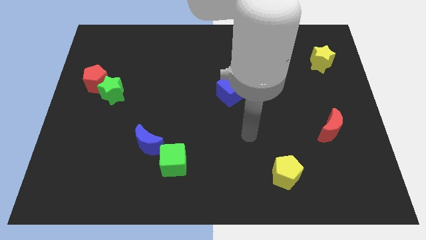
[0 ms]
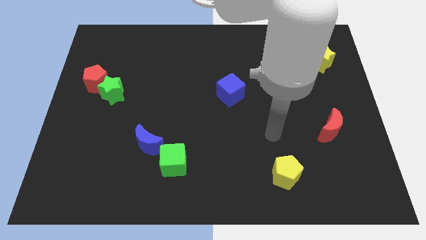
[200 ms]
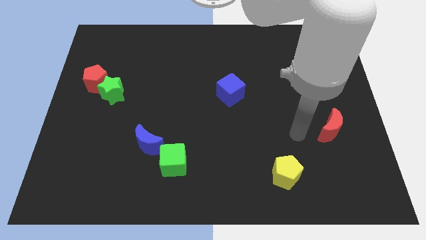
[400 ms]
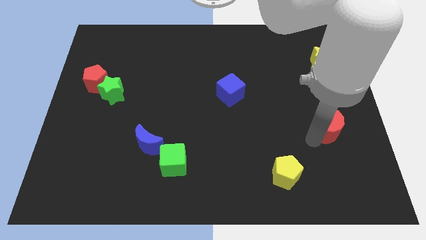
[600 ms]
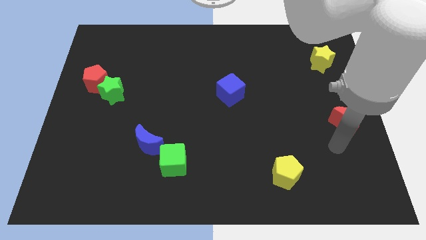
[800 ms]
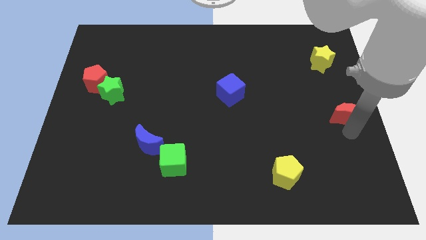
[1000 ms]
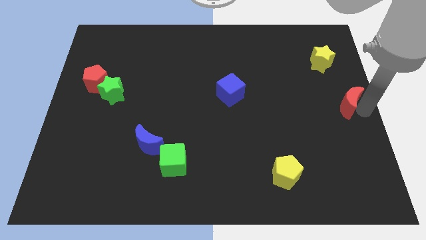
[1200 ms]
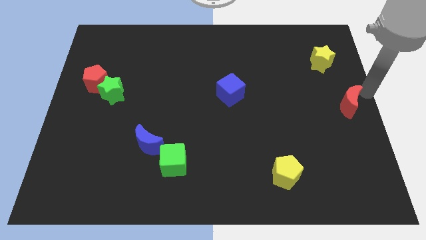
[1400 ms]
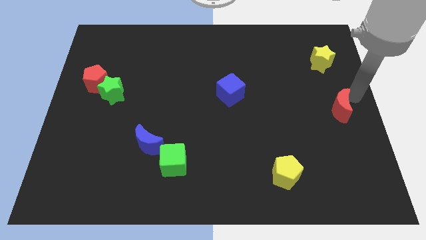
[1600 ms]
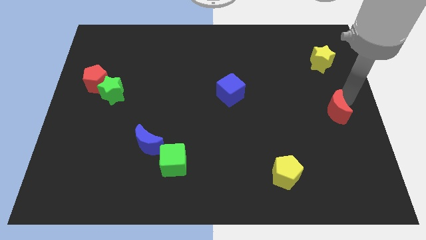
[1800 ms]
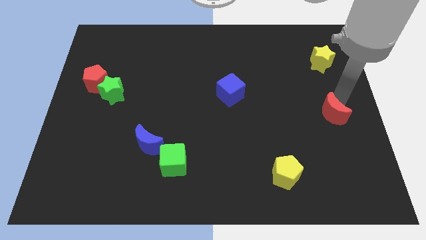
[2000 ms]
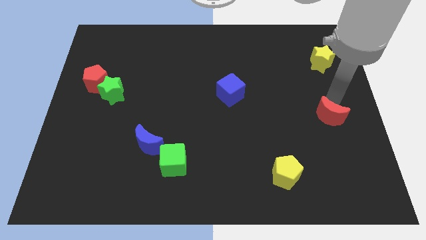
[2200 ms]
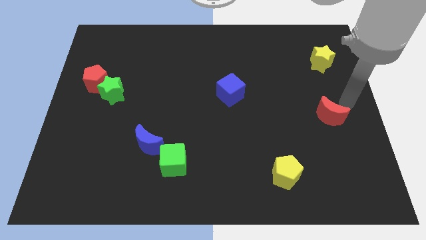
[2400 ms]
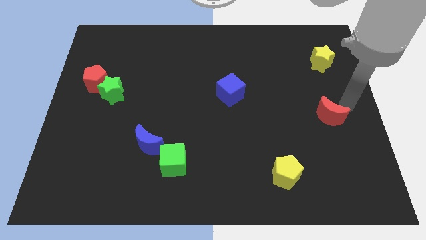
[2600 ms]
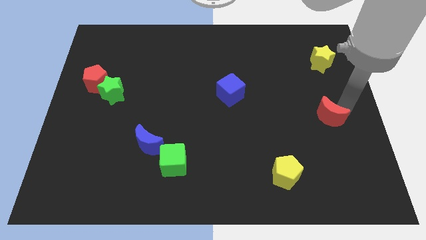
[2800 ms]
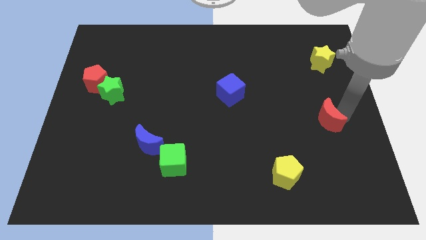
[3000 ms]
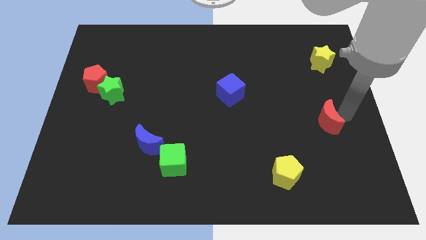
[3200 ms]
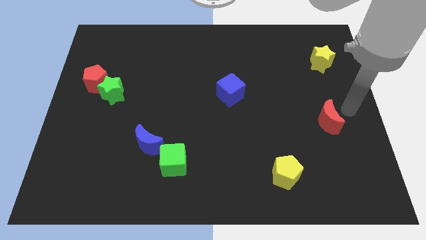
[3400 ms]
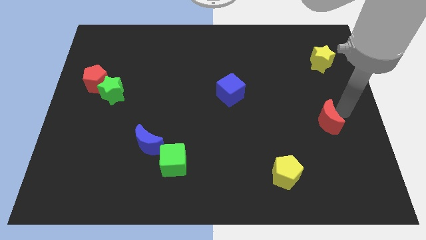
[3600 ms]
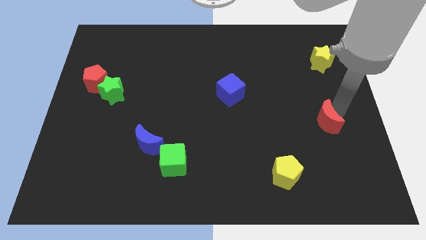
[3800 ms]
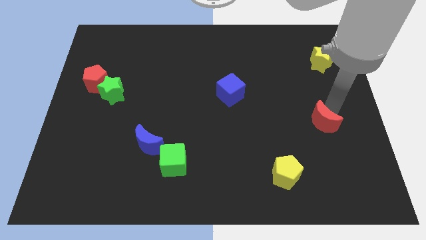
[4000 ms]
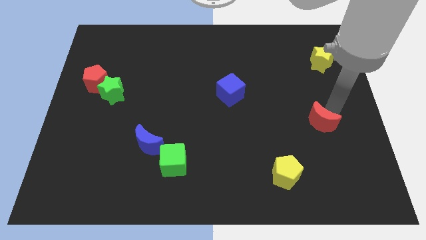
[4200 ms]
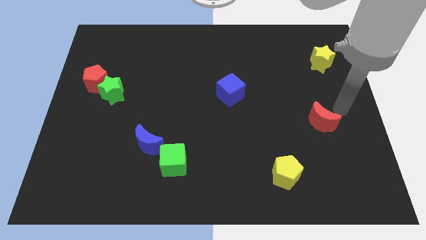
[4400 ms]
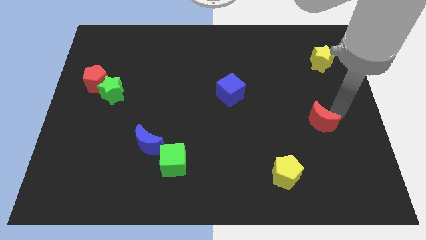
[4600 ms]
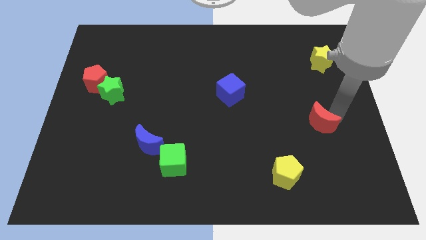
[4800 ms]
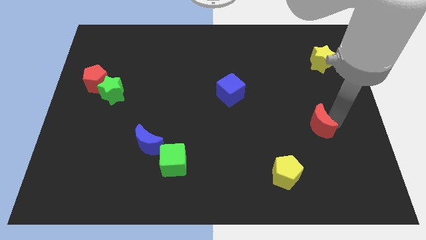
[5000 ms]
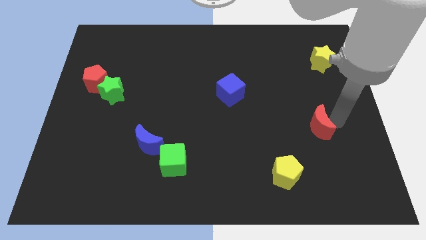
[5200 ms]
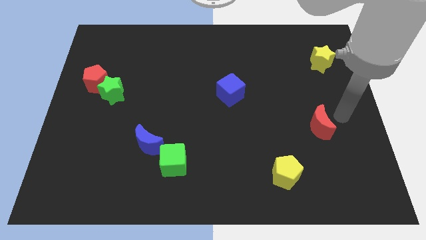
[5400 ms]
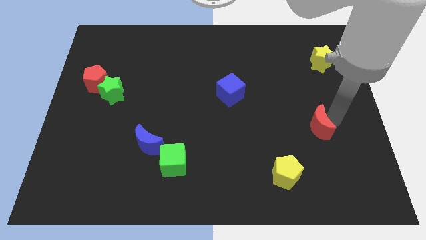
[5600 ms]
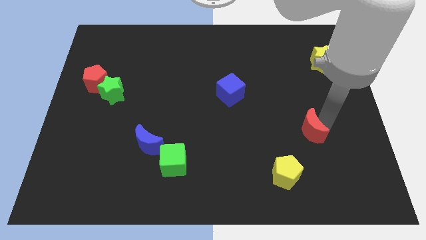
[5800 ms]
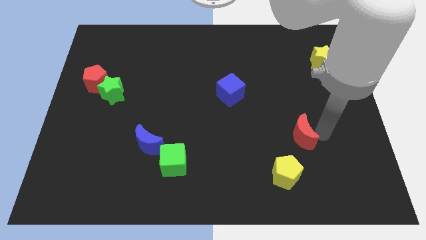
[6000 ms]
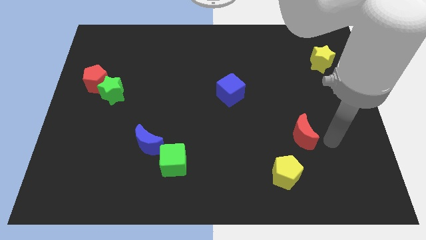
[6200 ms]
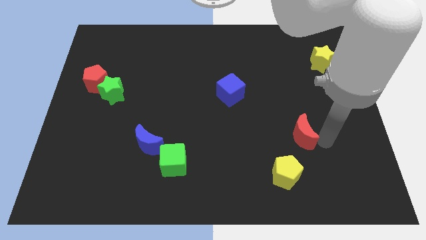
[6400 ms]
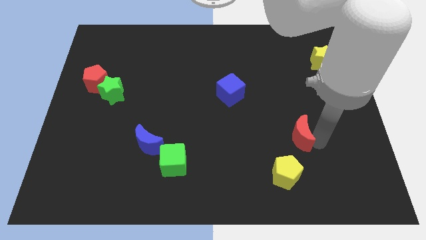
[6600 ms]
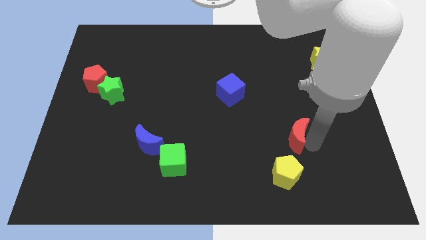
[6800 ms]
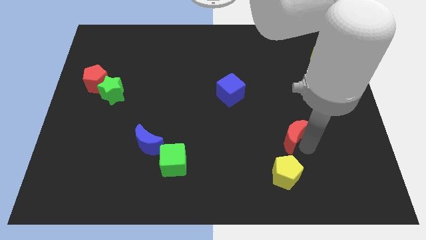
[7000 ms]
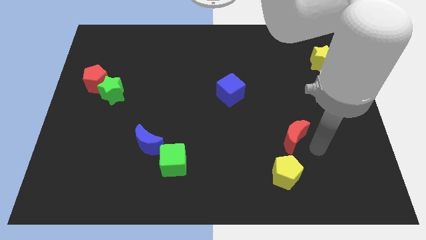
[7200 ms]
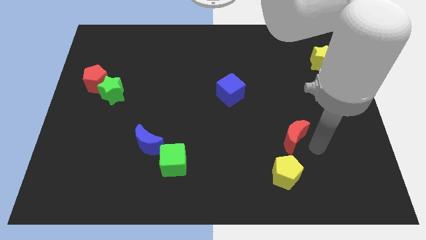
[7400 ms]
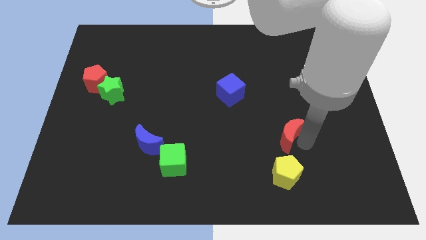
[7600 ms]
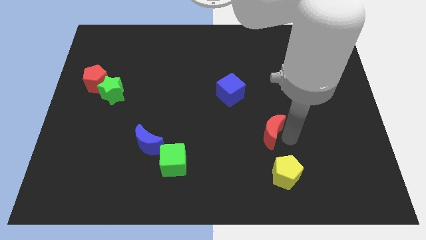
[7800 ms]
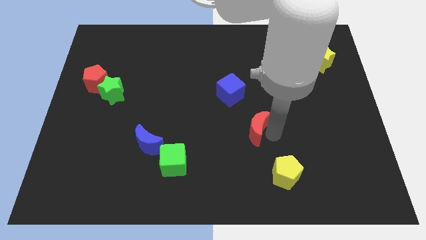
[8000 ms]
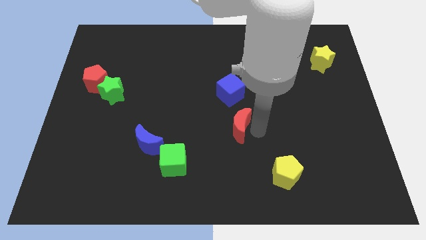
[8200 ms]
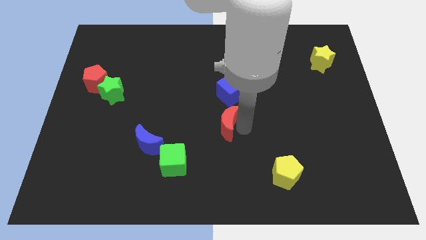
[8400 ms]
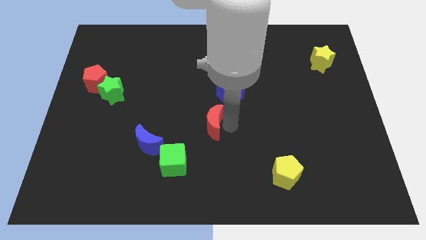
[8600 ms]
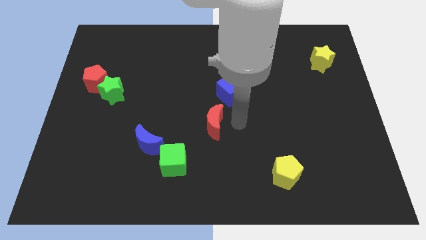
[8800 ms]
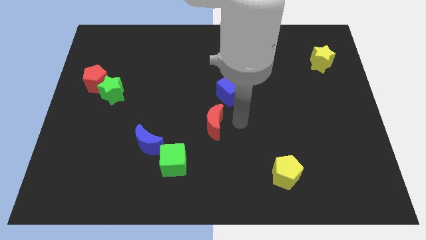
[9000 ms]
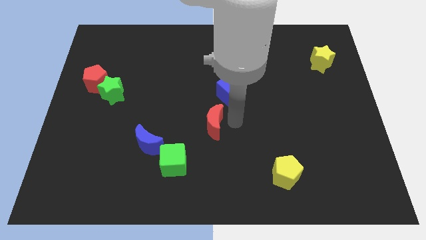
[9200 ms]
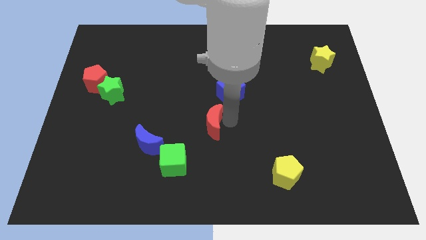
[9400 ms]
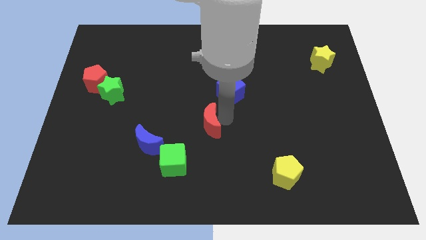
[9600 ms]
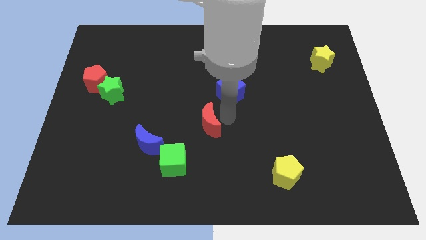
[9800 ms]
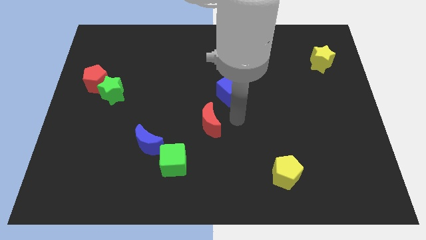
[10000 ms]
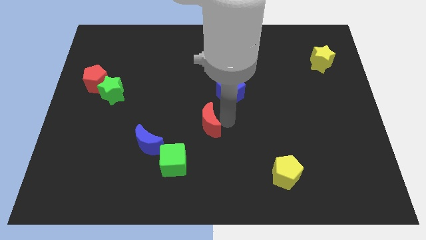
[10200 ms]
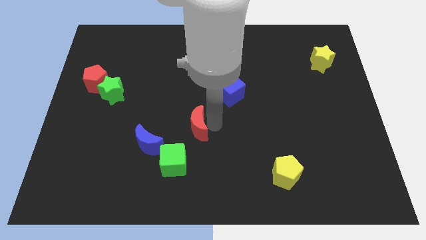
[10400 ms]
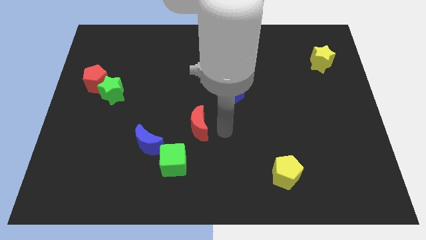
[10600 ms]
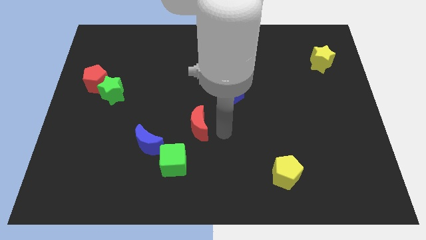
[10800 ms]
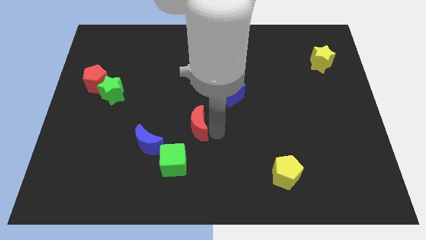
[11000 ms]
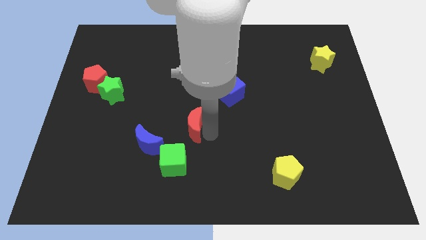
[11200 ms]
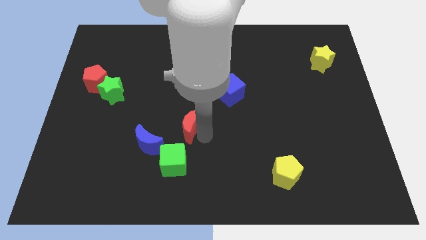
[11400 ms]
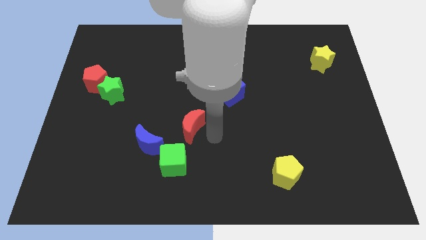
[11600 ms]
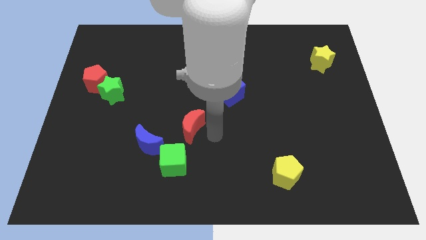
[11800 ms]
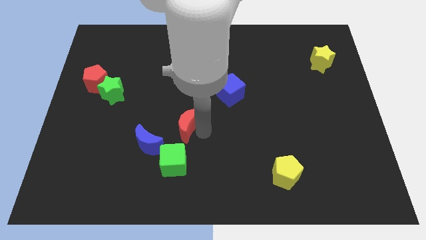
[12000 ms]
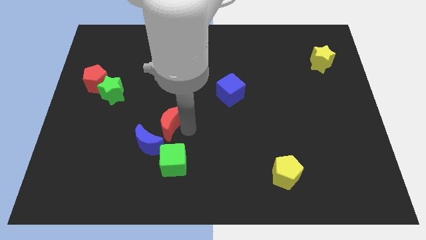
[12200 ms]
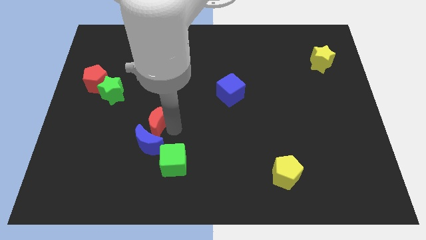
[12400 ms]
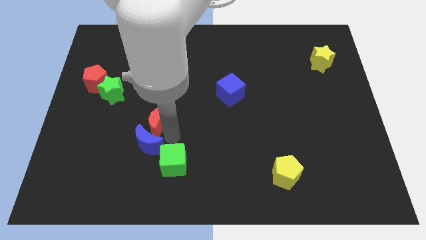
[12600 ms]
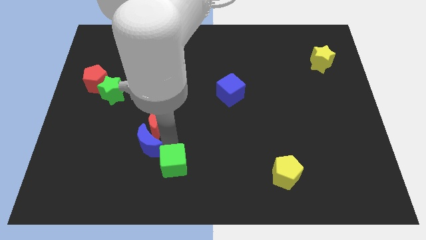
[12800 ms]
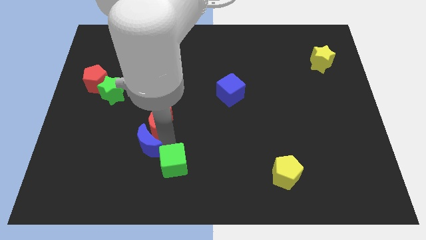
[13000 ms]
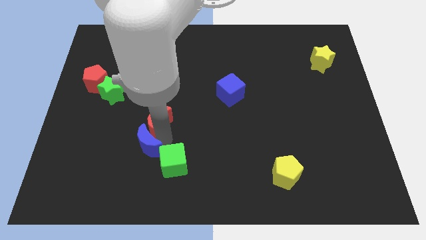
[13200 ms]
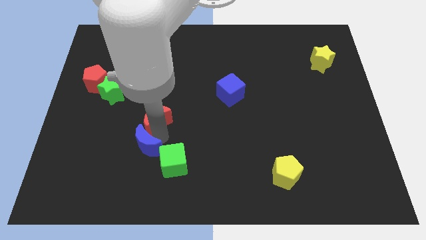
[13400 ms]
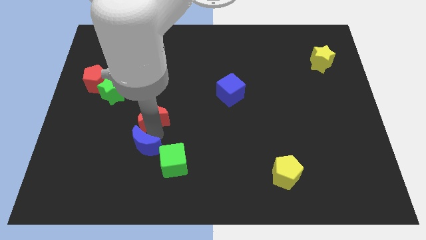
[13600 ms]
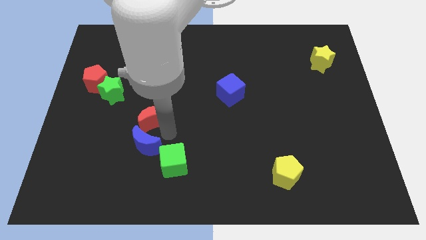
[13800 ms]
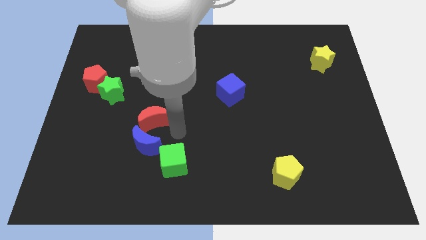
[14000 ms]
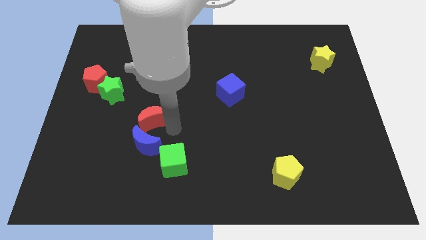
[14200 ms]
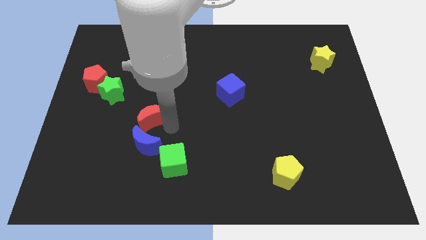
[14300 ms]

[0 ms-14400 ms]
put the red moon diagonally down and to the right of the green star
